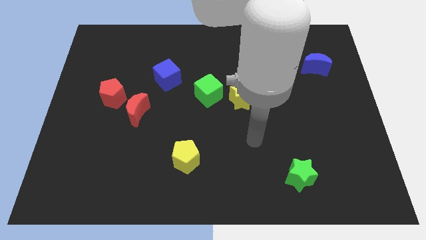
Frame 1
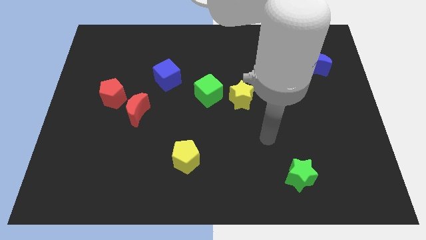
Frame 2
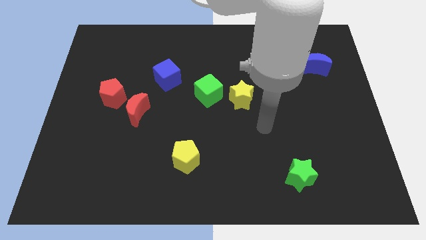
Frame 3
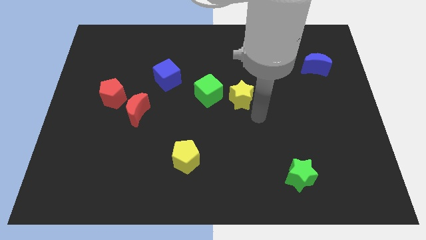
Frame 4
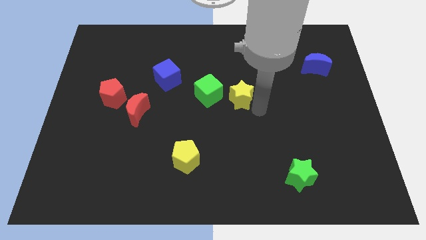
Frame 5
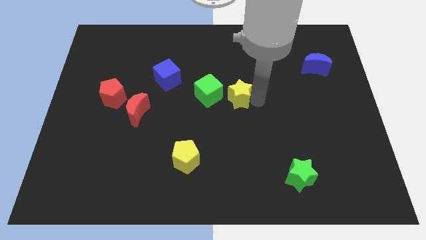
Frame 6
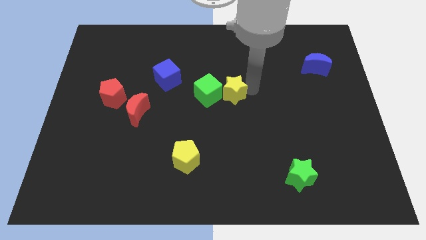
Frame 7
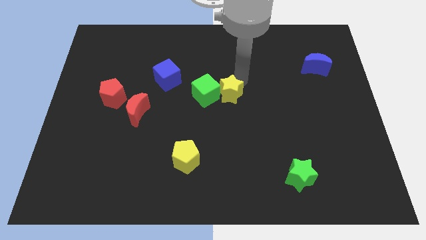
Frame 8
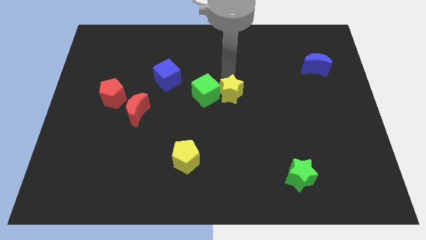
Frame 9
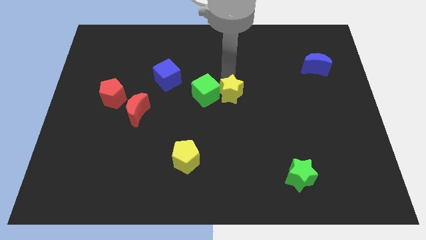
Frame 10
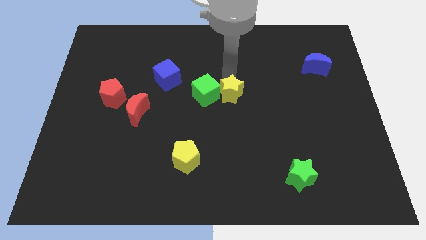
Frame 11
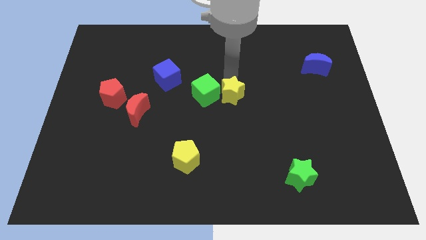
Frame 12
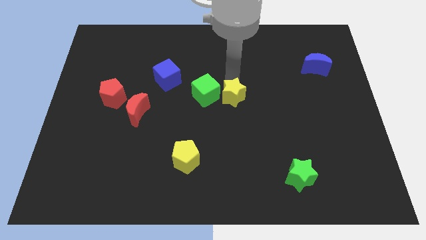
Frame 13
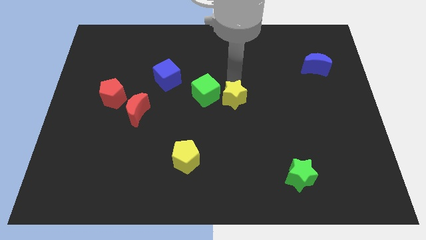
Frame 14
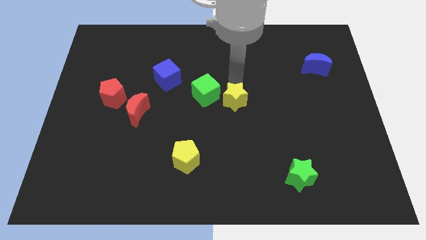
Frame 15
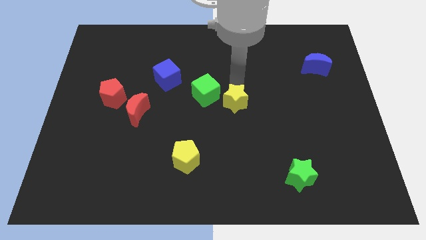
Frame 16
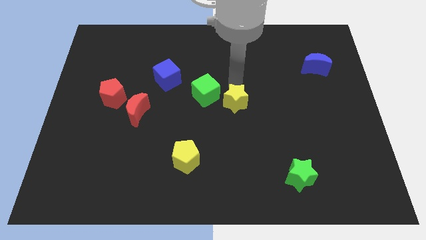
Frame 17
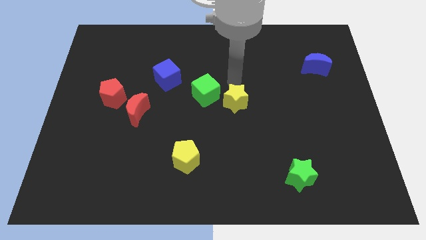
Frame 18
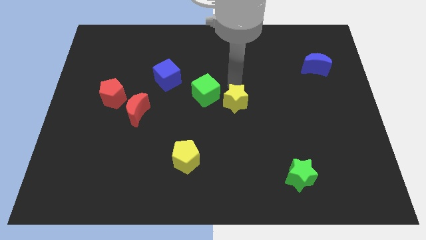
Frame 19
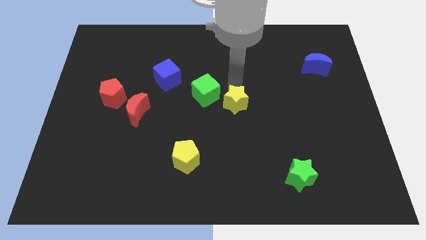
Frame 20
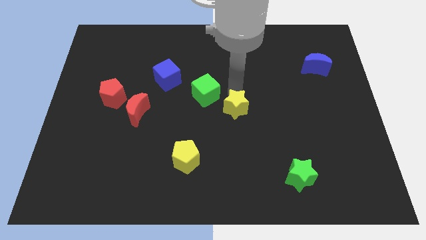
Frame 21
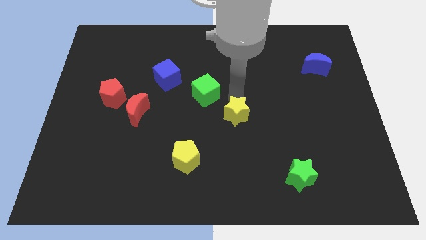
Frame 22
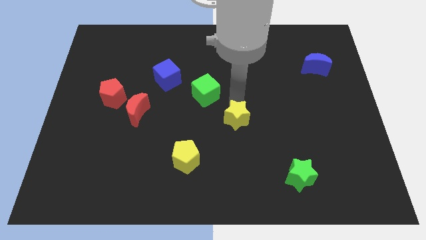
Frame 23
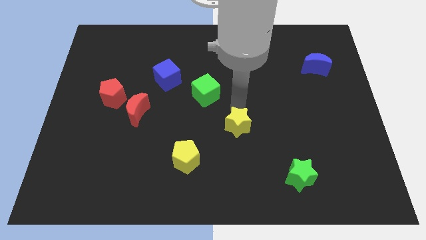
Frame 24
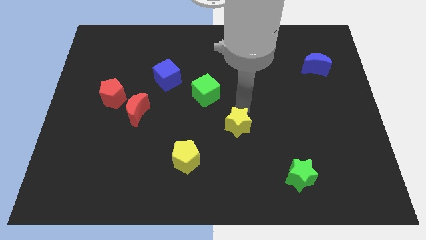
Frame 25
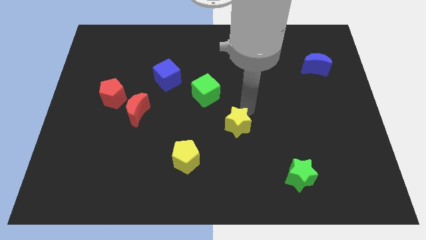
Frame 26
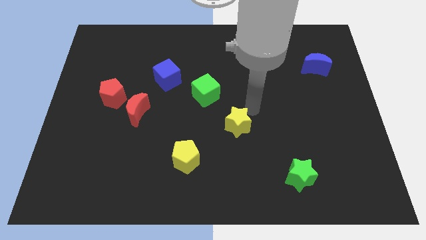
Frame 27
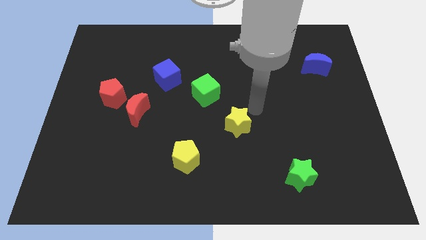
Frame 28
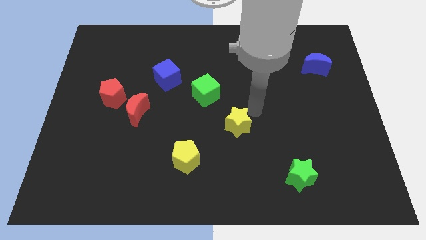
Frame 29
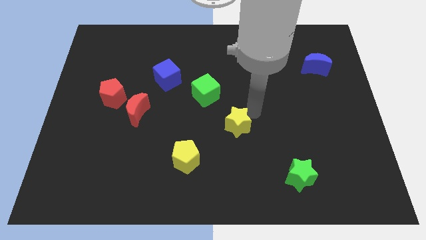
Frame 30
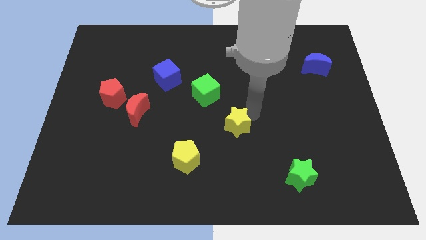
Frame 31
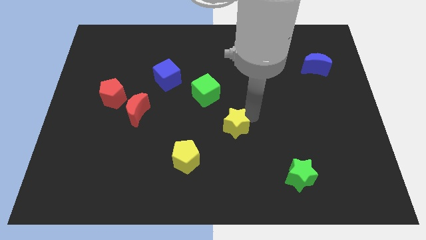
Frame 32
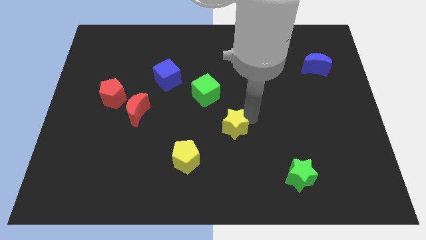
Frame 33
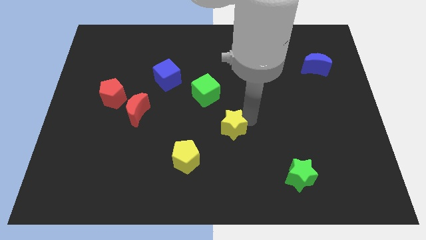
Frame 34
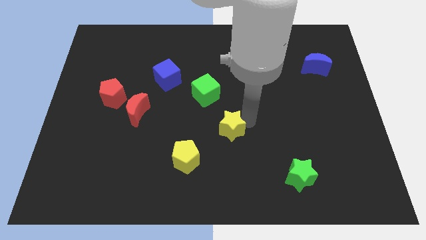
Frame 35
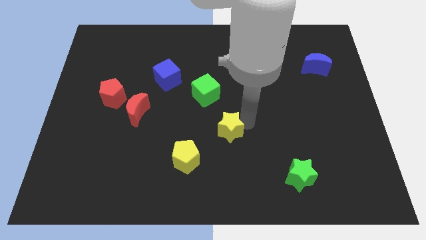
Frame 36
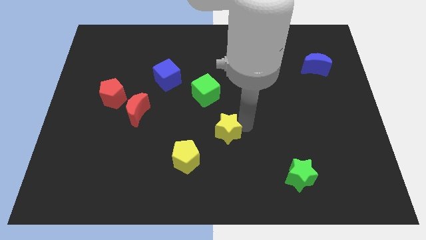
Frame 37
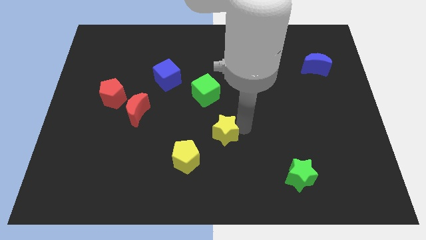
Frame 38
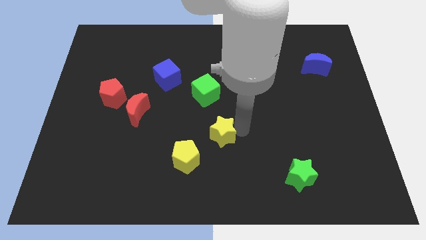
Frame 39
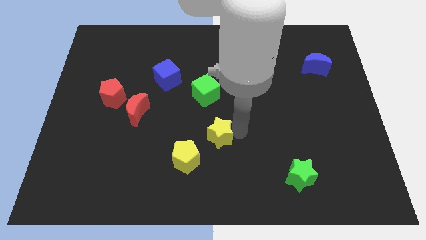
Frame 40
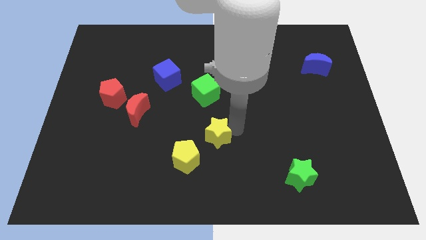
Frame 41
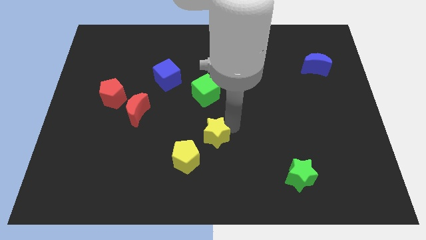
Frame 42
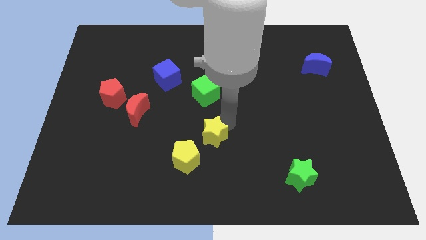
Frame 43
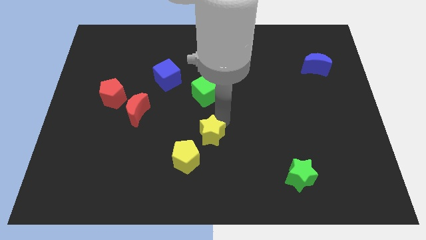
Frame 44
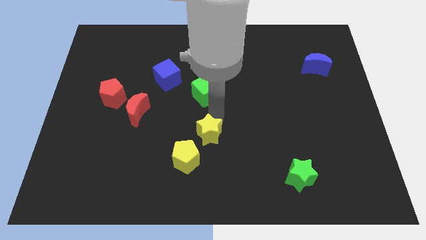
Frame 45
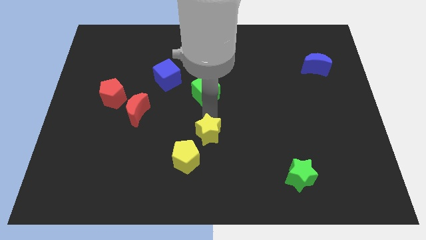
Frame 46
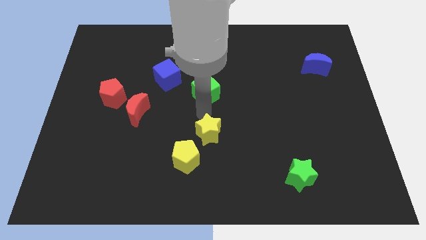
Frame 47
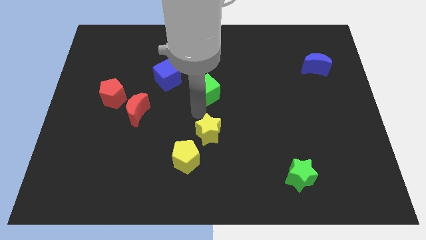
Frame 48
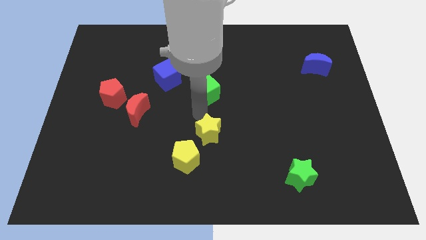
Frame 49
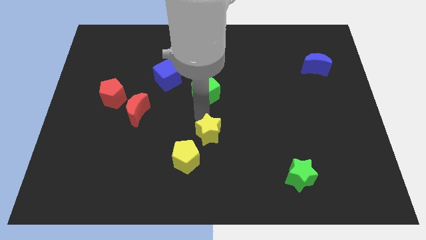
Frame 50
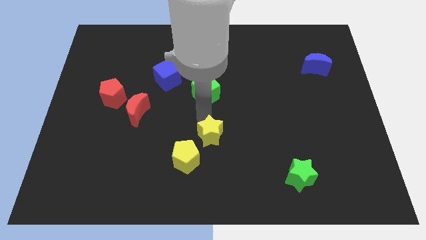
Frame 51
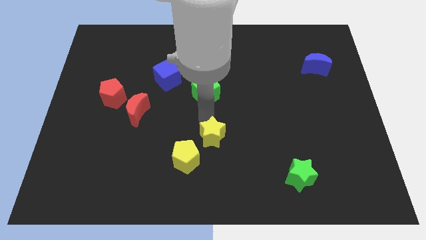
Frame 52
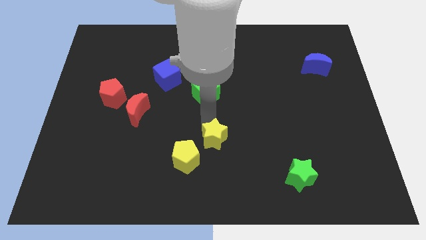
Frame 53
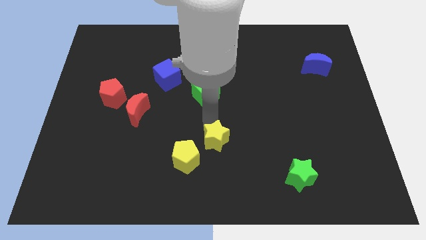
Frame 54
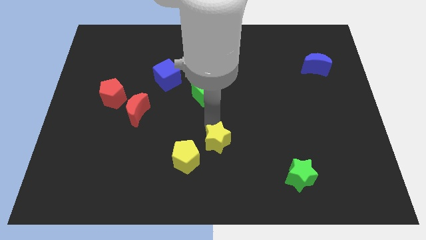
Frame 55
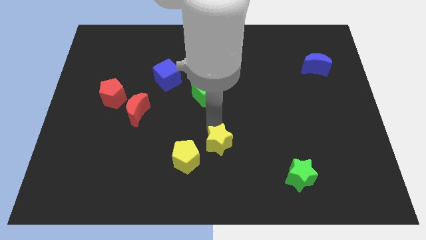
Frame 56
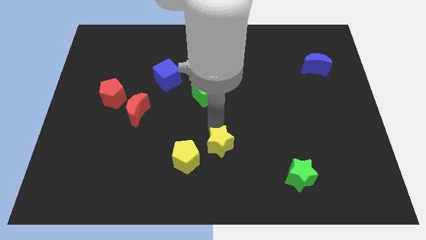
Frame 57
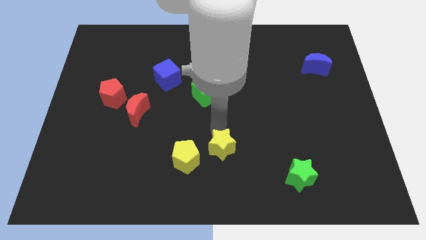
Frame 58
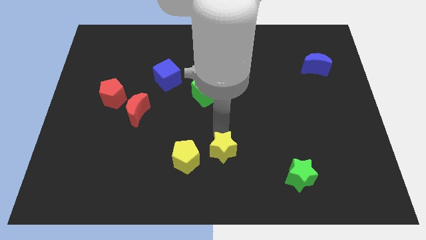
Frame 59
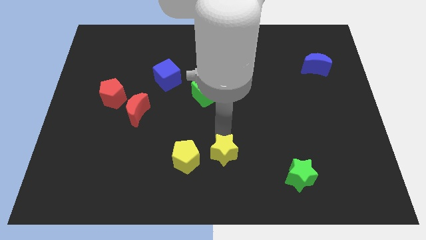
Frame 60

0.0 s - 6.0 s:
slide the yellow star to the bottom
